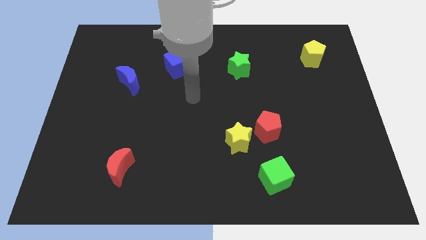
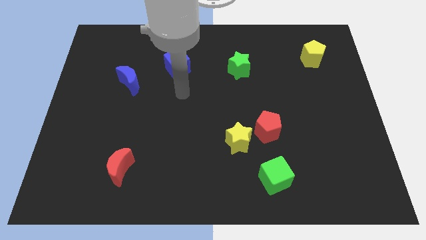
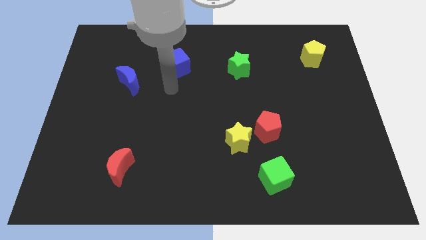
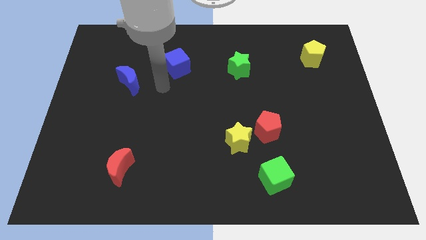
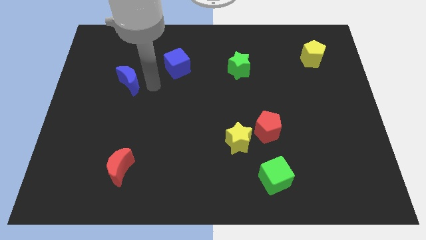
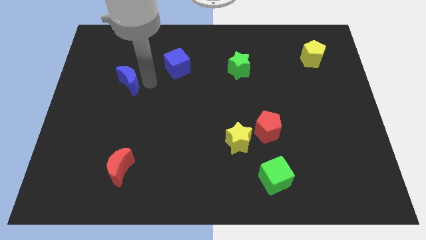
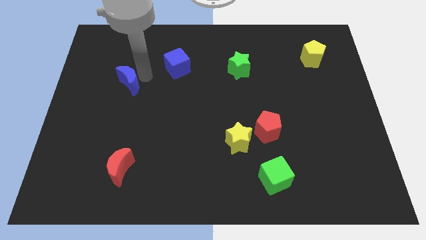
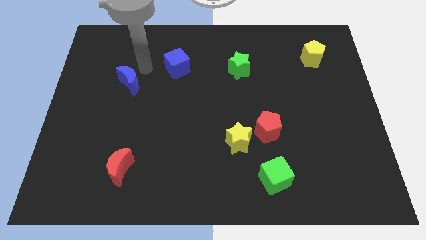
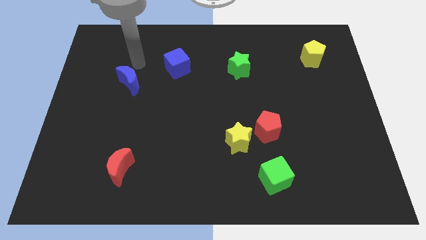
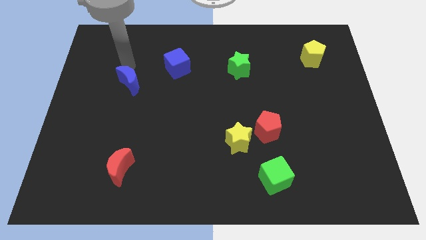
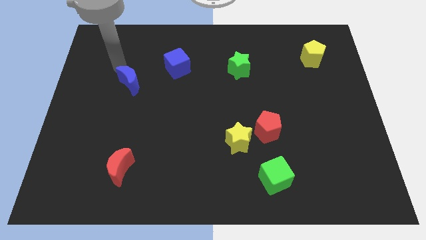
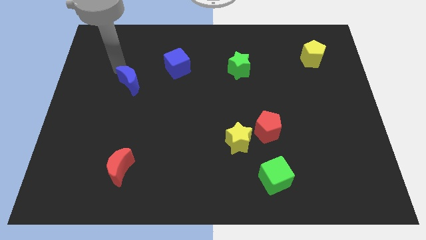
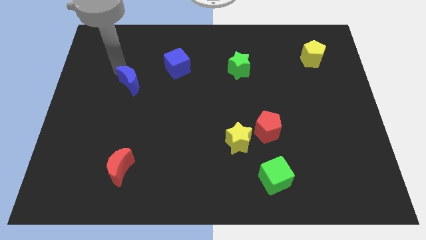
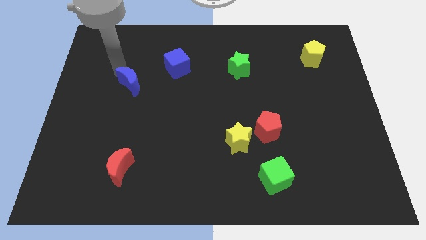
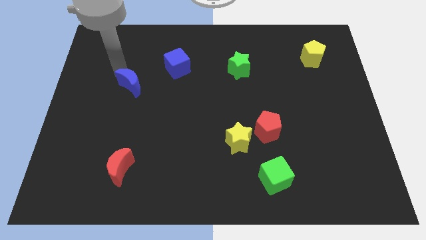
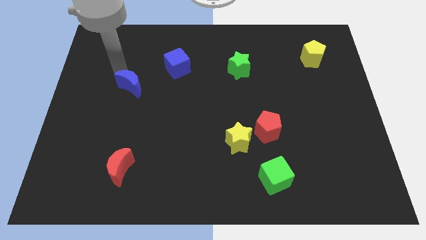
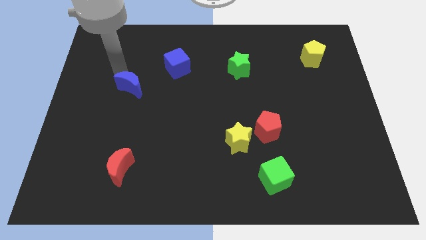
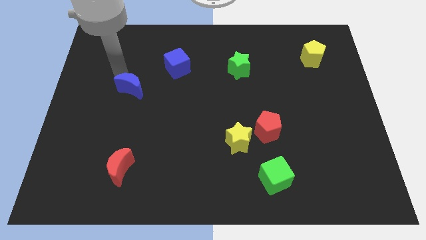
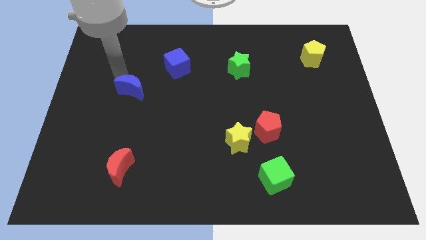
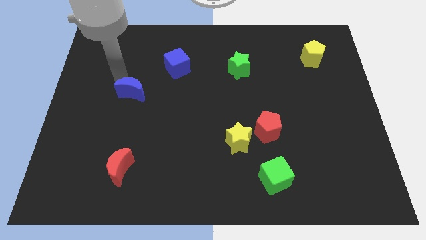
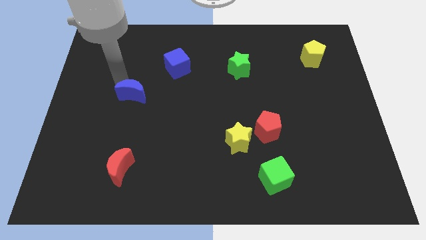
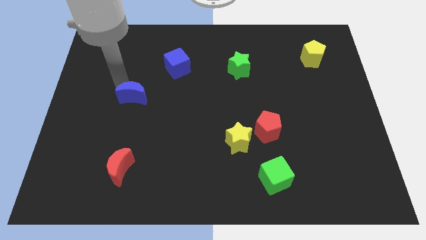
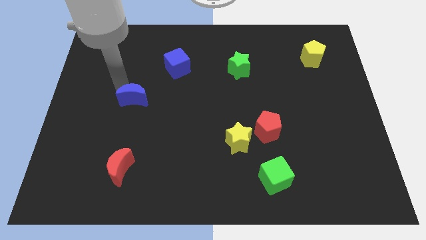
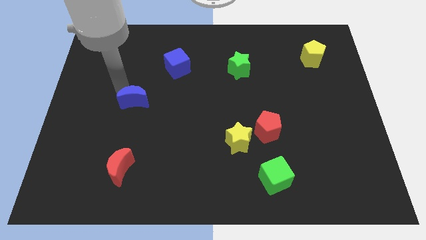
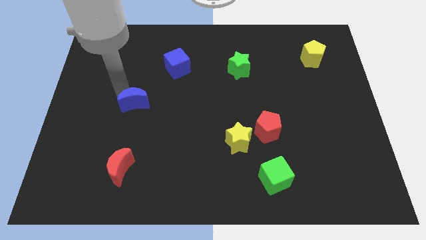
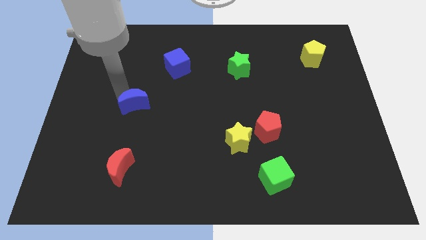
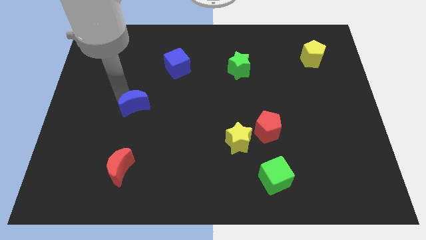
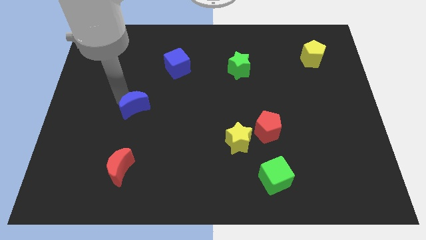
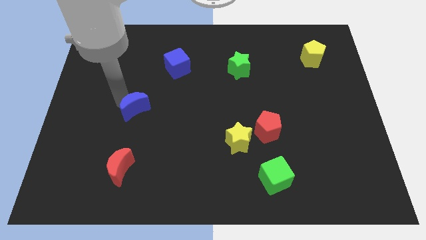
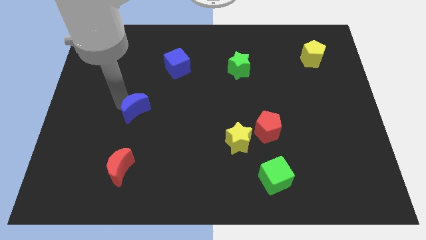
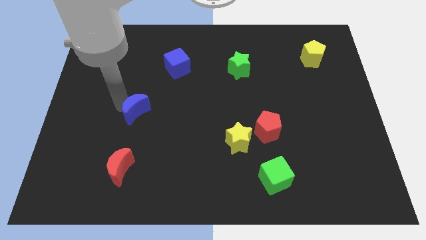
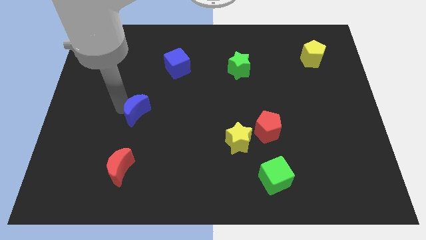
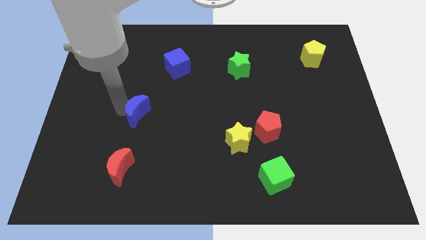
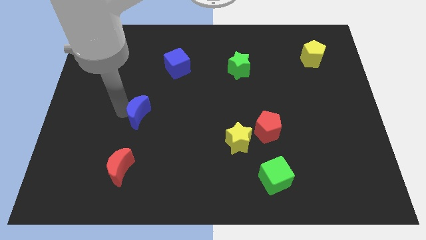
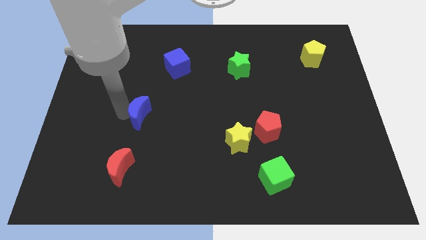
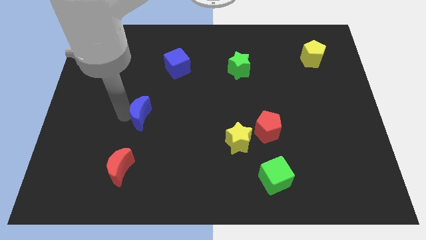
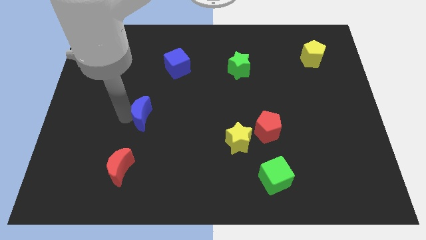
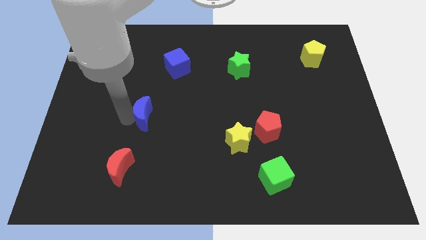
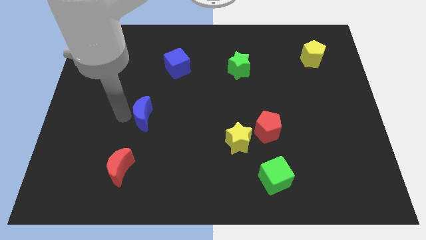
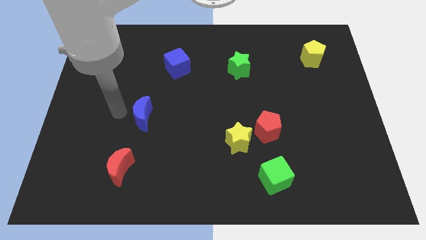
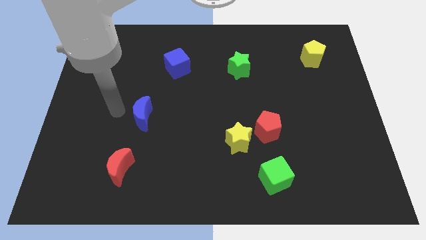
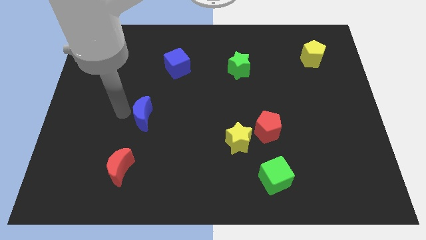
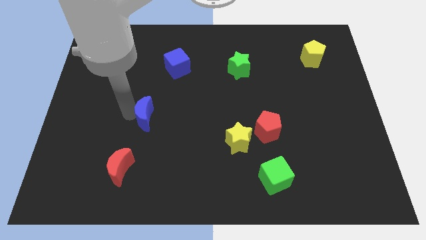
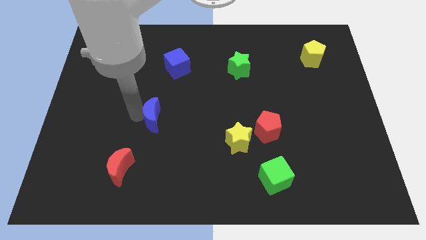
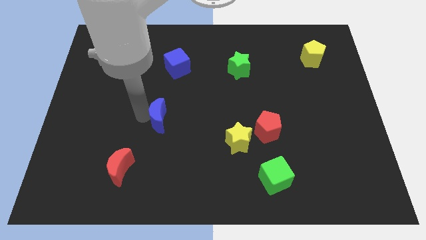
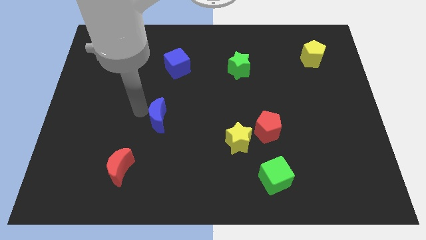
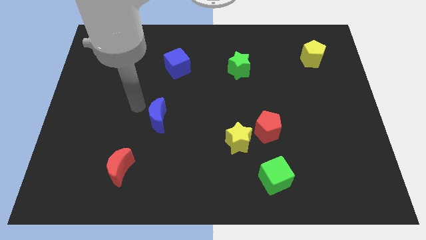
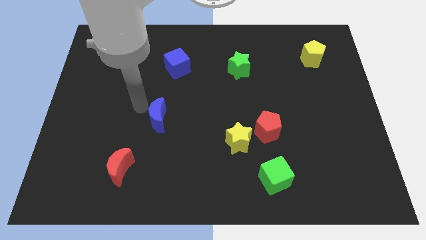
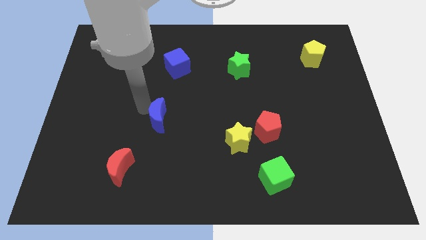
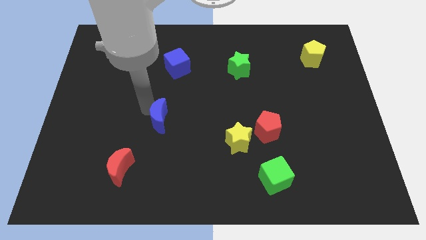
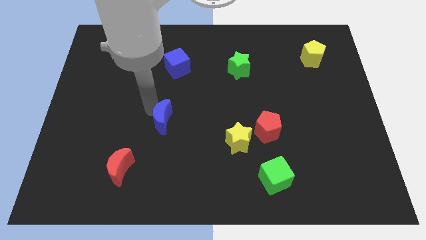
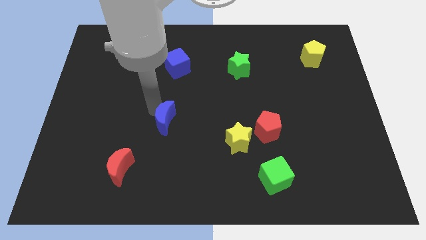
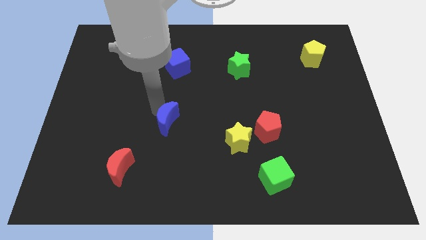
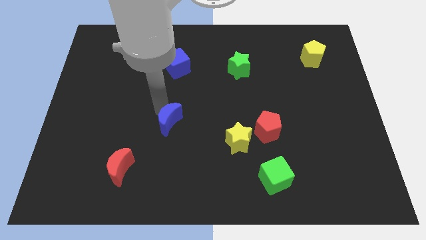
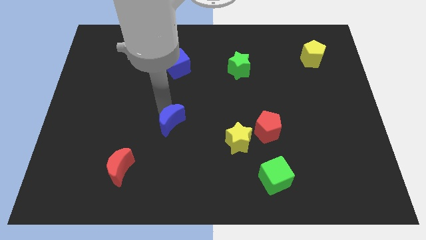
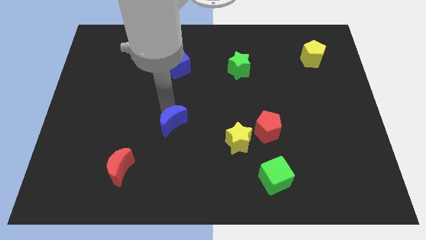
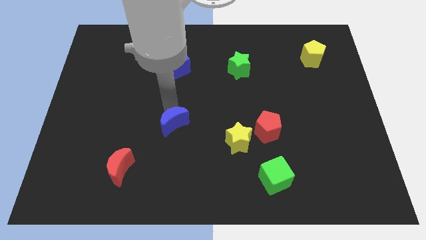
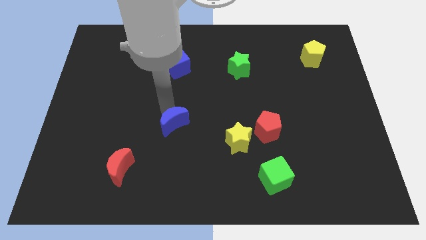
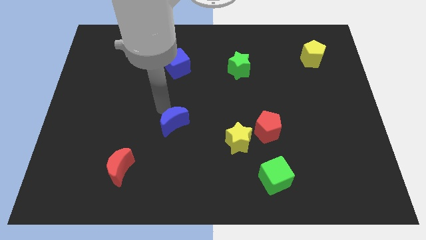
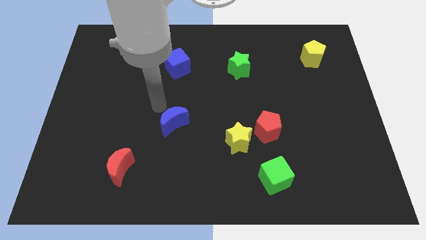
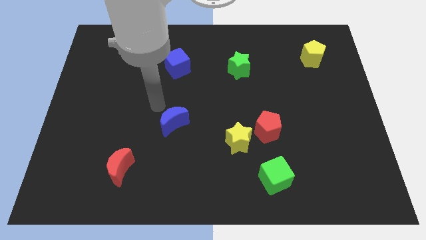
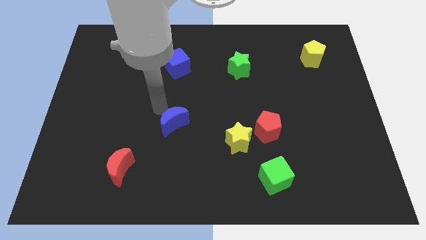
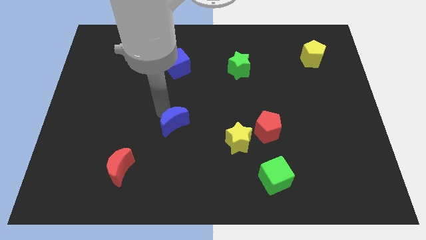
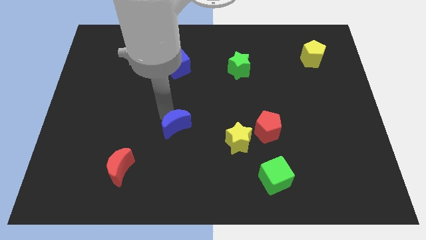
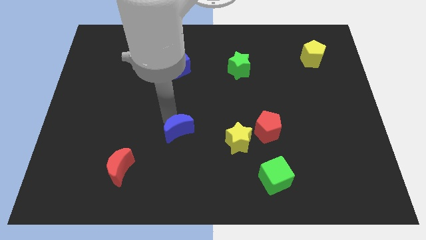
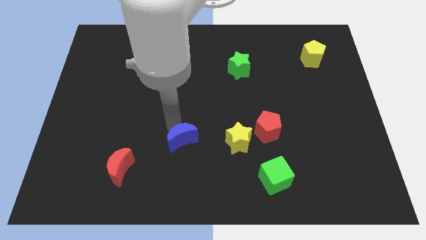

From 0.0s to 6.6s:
move the blue moon downwards and to the right diagonally

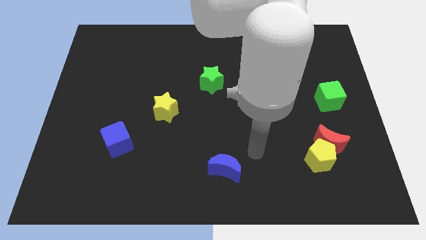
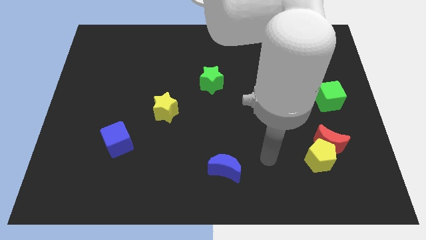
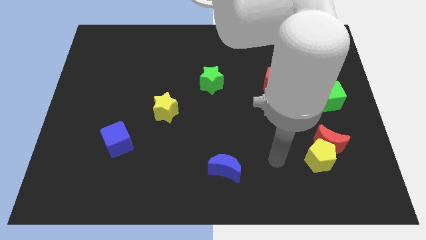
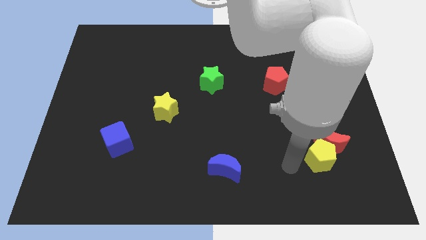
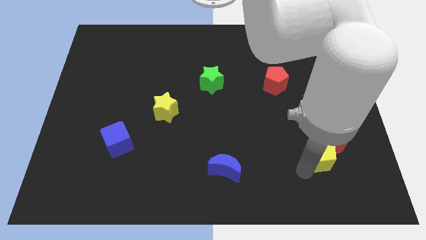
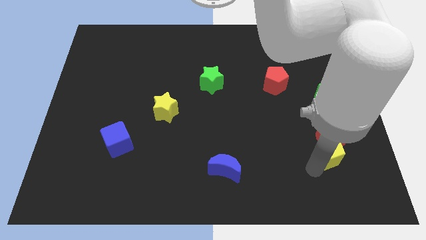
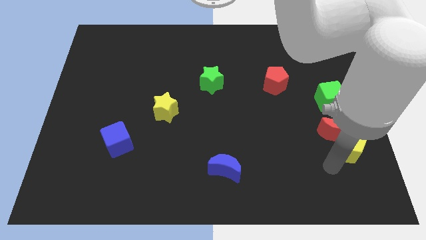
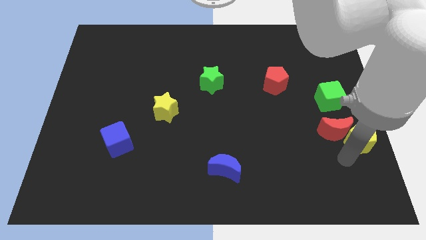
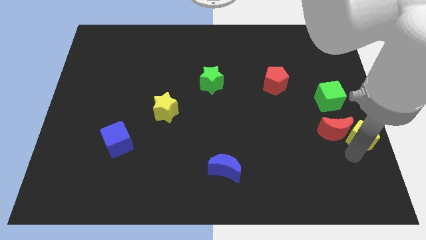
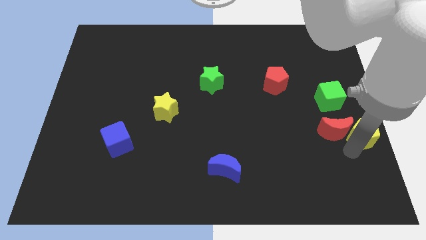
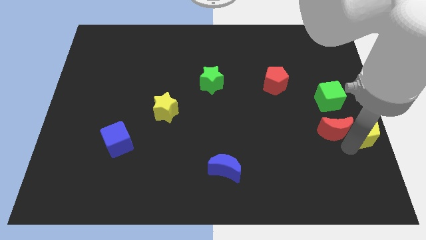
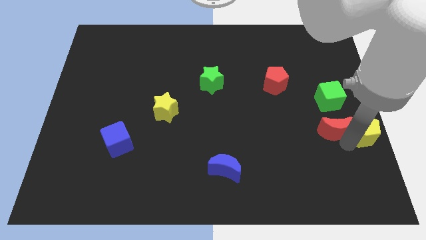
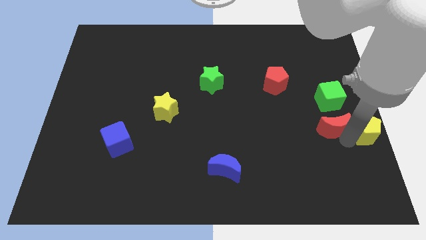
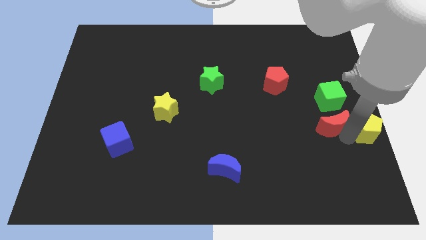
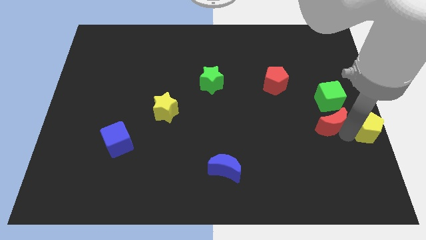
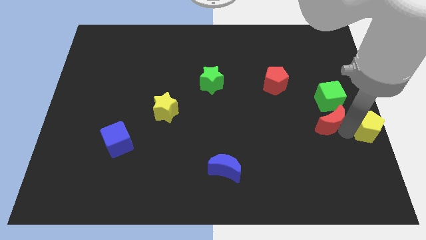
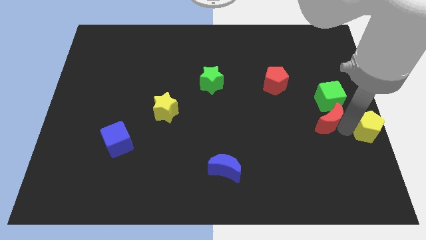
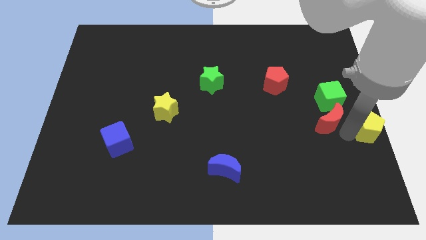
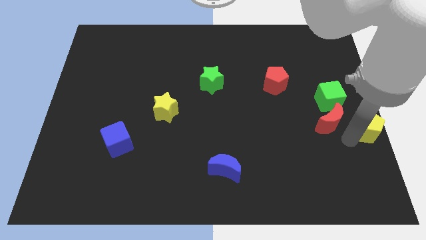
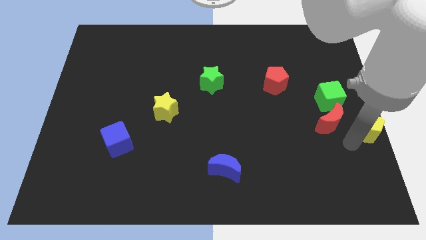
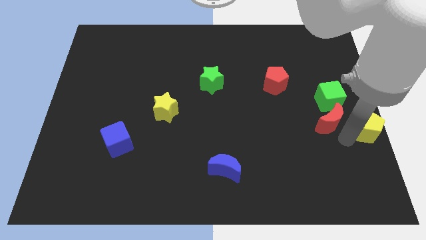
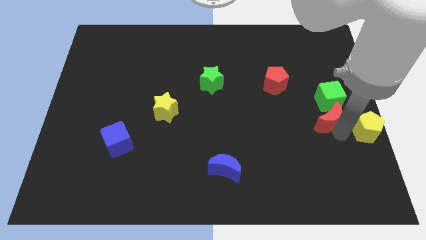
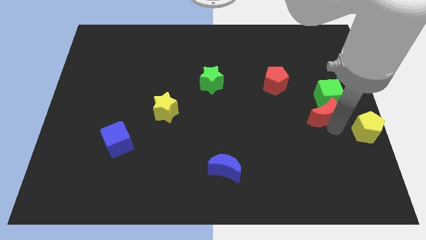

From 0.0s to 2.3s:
slightly push the red moon upwards
